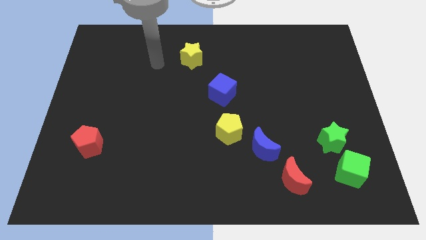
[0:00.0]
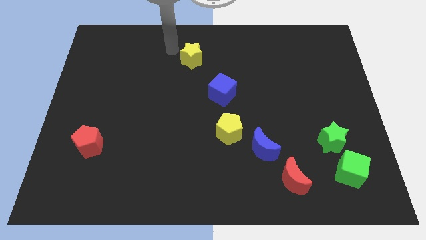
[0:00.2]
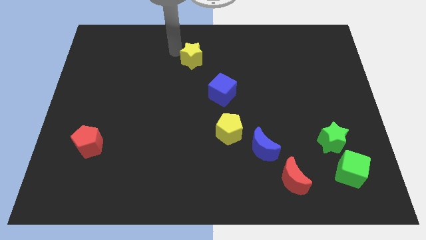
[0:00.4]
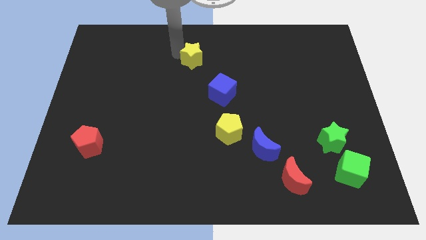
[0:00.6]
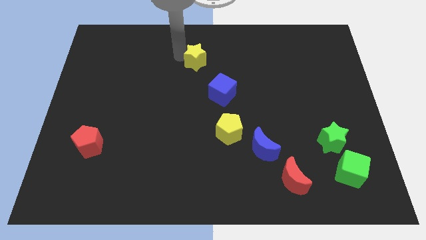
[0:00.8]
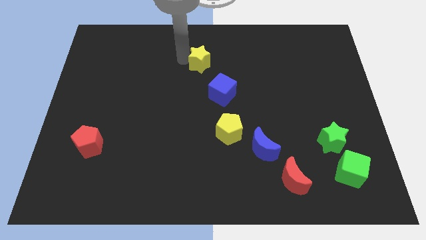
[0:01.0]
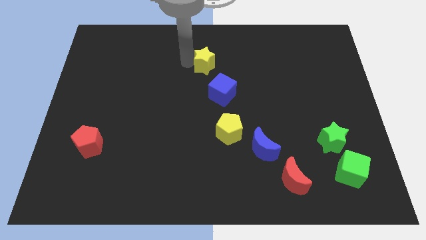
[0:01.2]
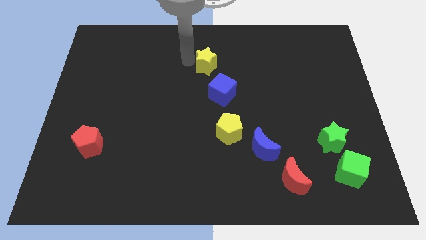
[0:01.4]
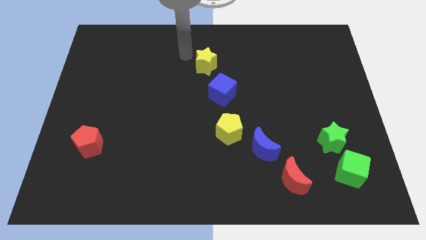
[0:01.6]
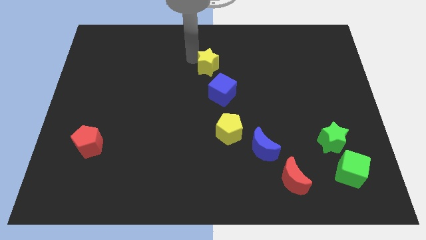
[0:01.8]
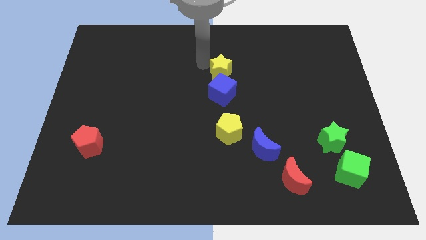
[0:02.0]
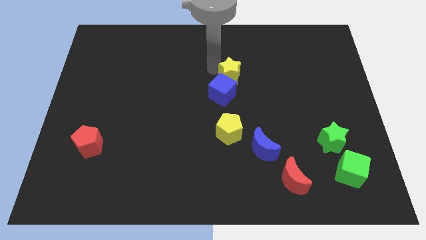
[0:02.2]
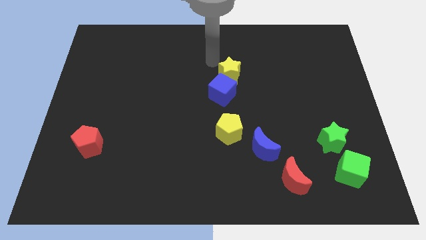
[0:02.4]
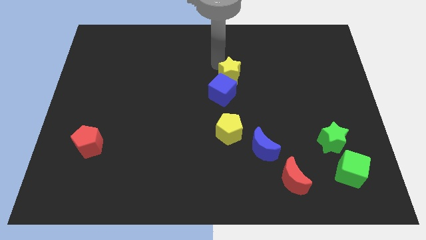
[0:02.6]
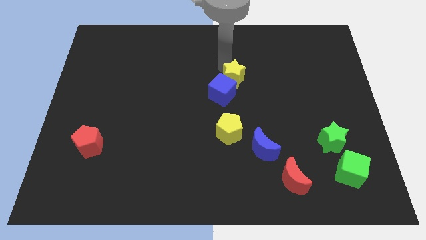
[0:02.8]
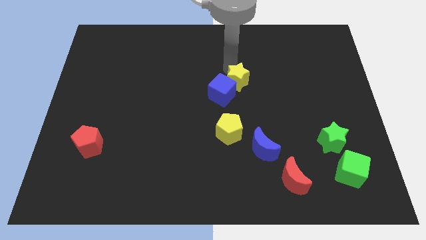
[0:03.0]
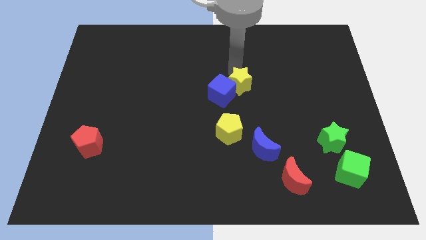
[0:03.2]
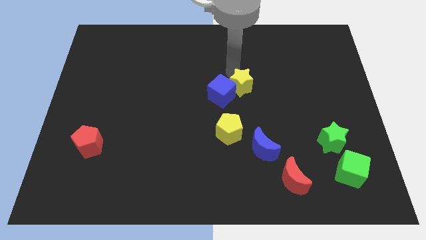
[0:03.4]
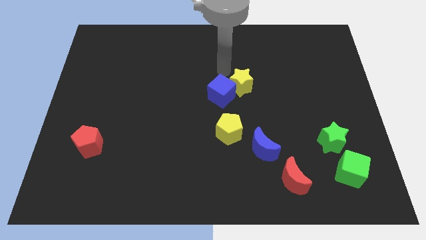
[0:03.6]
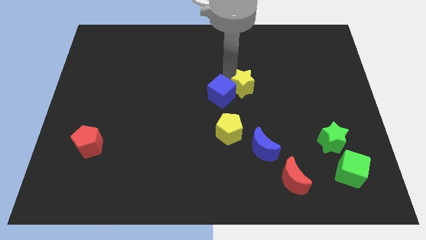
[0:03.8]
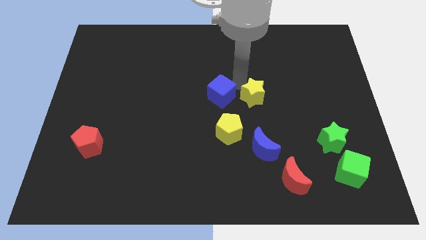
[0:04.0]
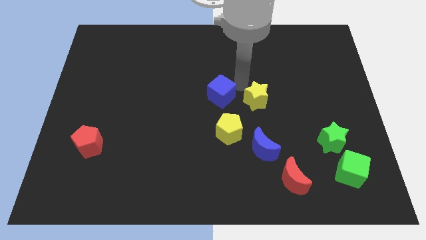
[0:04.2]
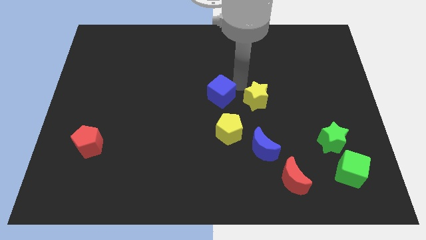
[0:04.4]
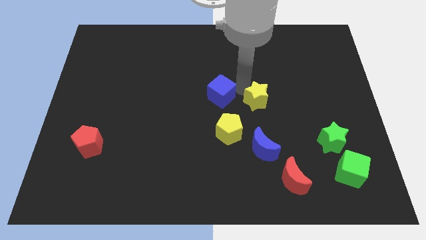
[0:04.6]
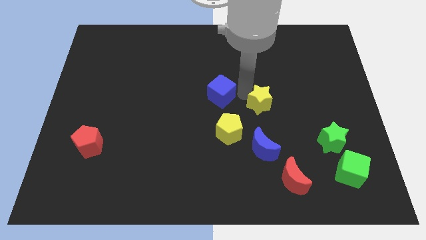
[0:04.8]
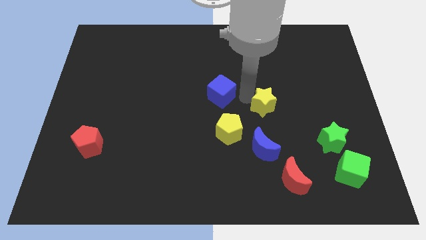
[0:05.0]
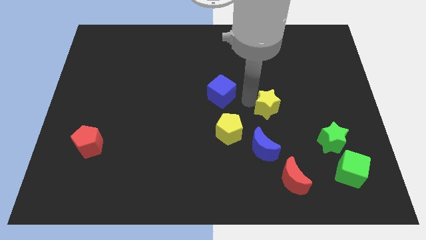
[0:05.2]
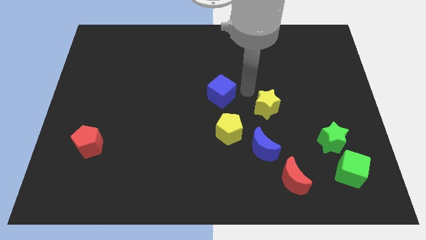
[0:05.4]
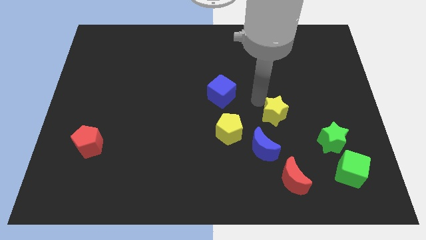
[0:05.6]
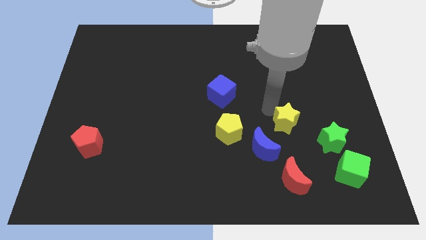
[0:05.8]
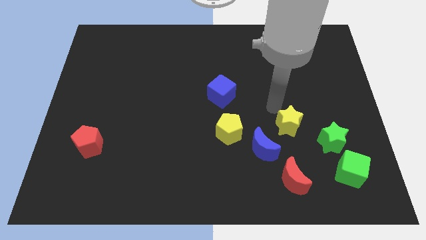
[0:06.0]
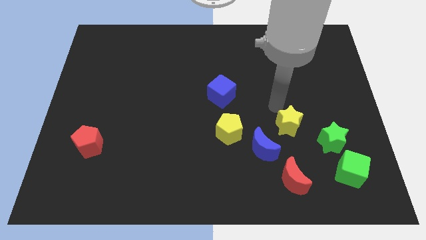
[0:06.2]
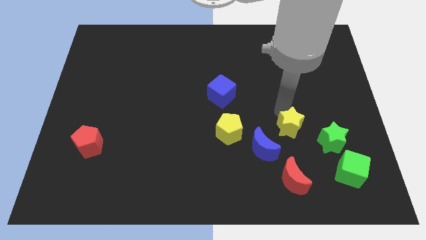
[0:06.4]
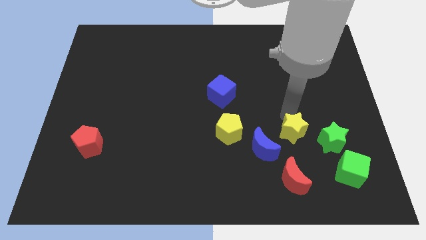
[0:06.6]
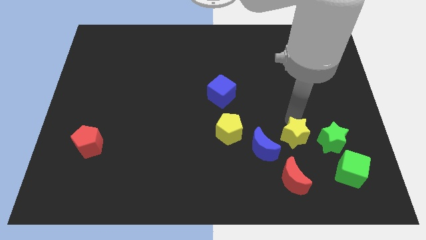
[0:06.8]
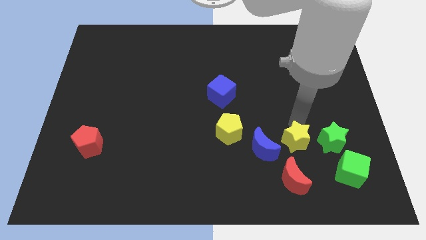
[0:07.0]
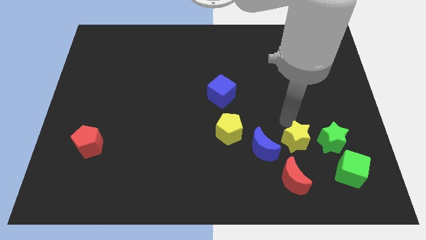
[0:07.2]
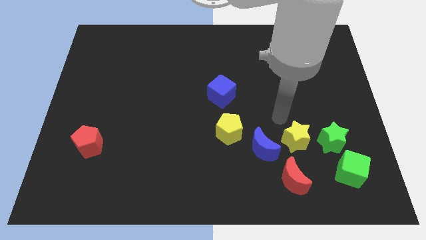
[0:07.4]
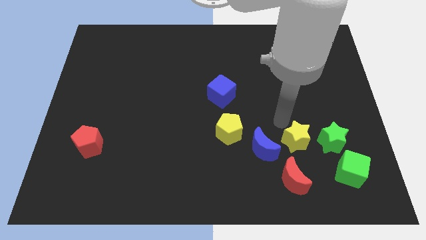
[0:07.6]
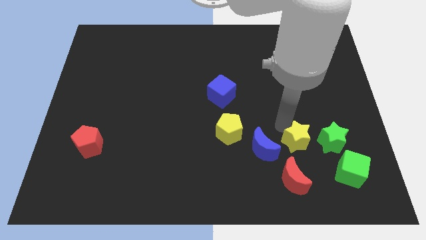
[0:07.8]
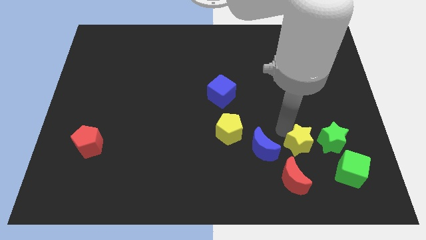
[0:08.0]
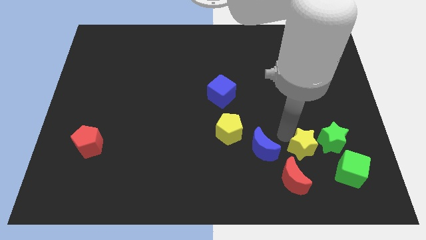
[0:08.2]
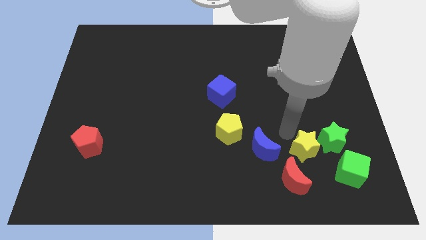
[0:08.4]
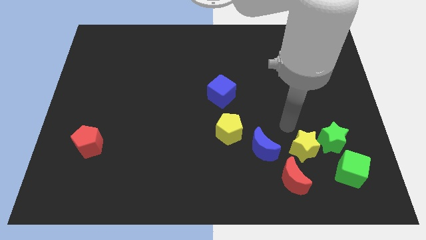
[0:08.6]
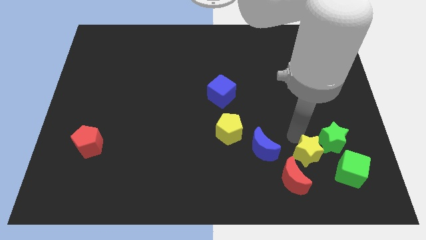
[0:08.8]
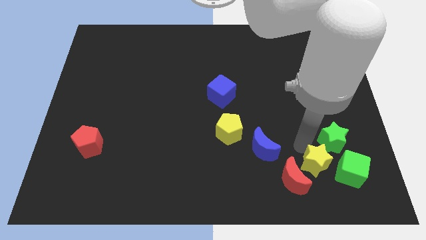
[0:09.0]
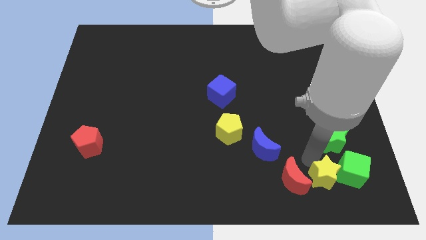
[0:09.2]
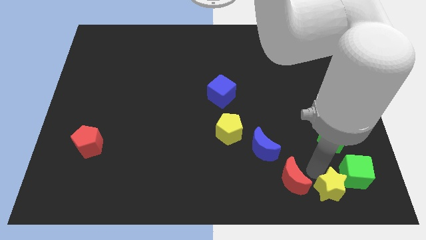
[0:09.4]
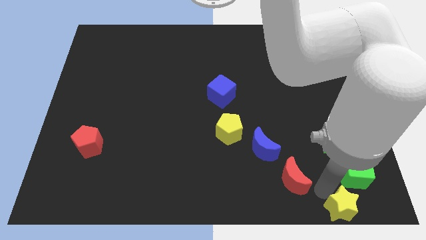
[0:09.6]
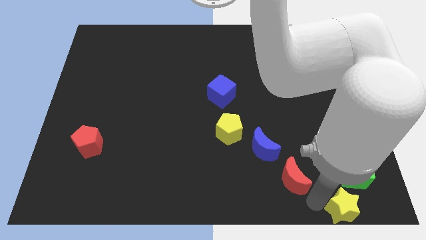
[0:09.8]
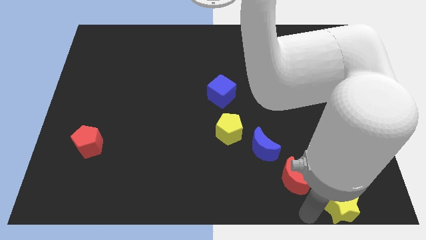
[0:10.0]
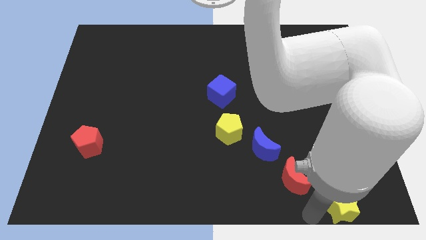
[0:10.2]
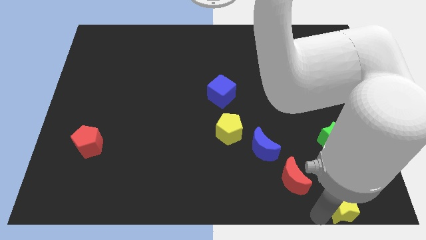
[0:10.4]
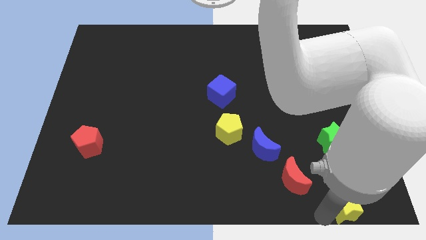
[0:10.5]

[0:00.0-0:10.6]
put the yellow star to the bottom right of the board

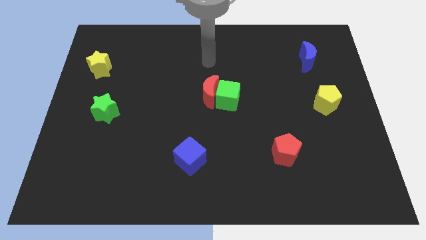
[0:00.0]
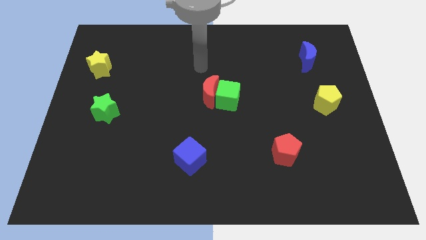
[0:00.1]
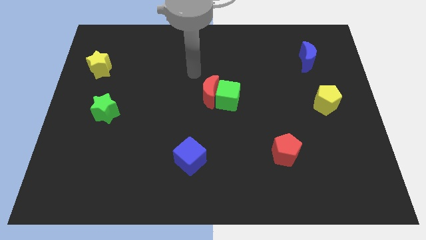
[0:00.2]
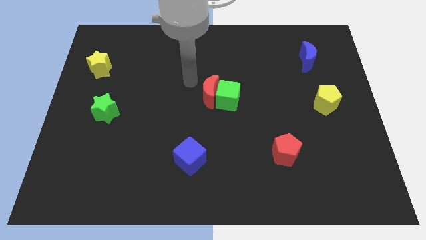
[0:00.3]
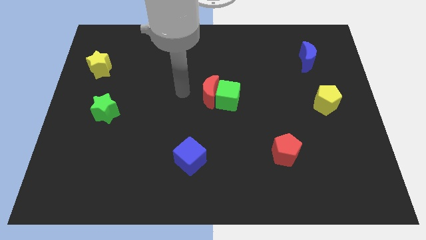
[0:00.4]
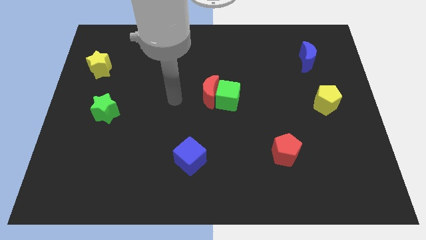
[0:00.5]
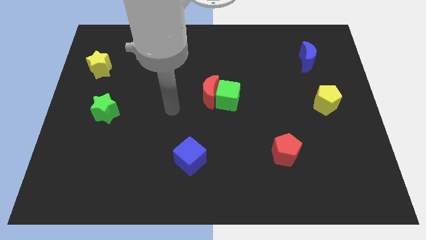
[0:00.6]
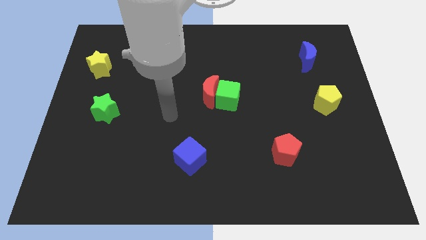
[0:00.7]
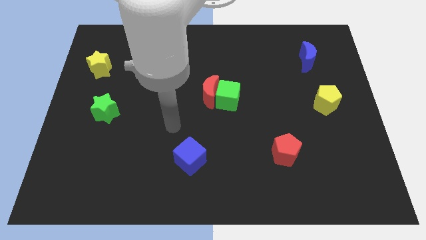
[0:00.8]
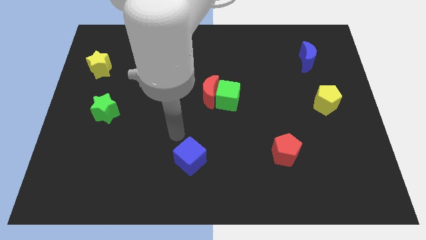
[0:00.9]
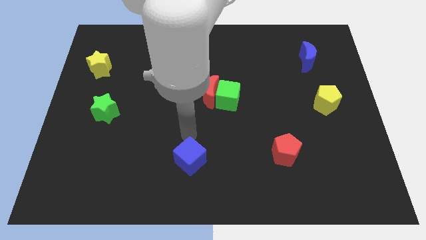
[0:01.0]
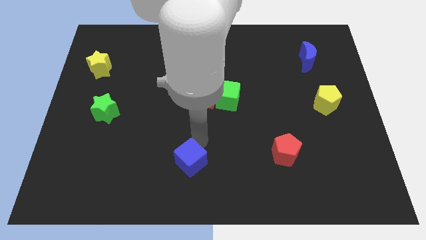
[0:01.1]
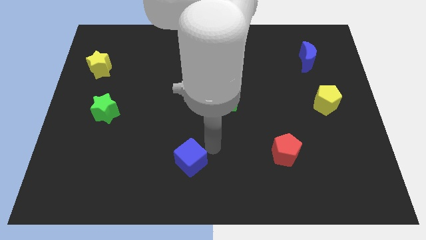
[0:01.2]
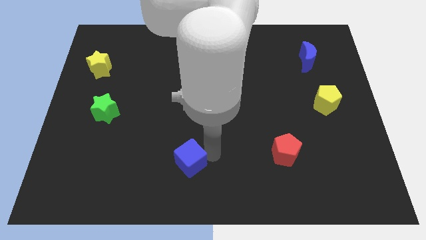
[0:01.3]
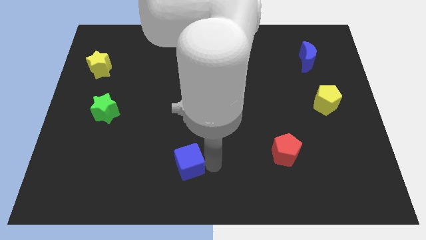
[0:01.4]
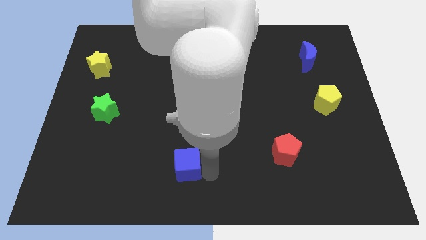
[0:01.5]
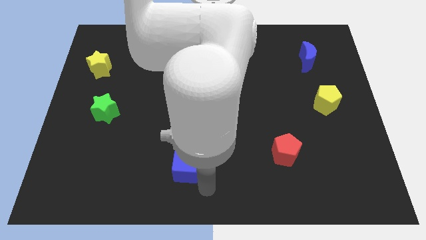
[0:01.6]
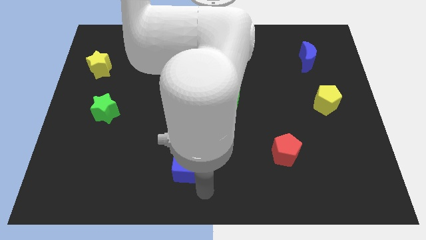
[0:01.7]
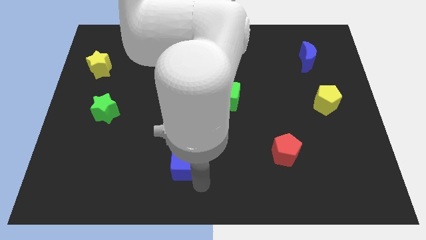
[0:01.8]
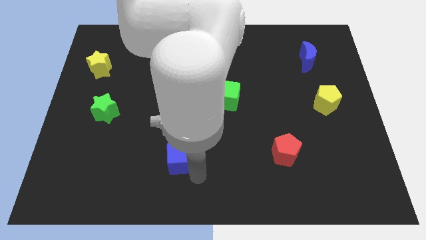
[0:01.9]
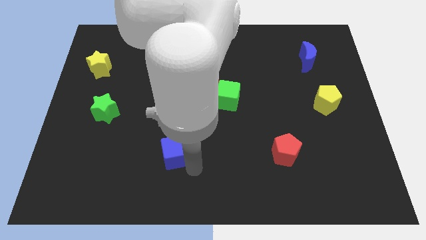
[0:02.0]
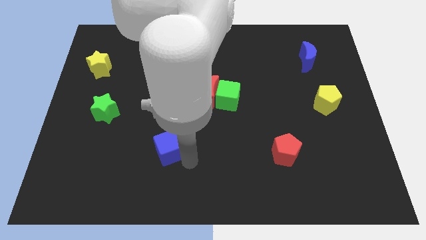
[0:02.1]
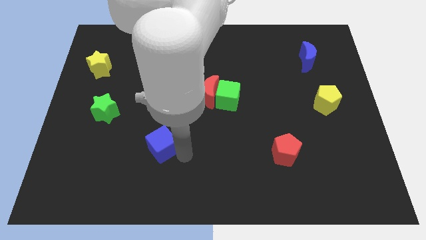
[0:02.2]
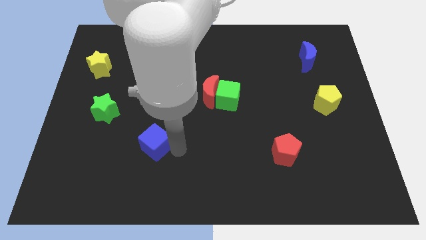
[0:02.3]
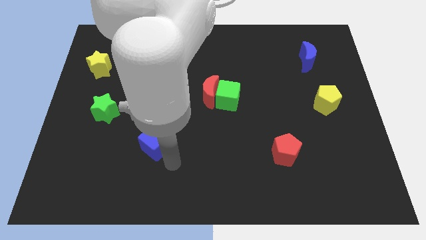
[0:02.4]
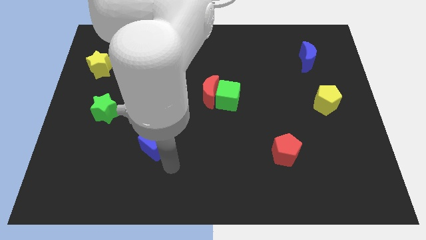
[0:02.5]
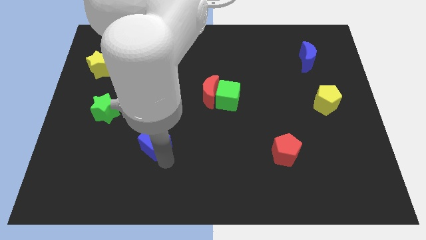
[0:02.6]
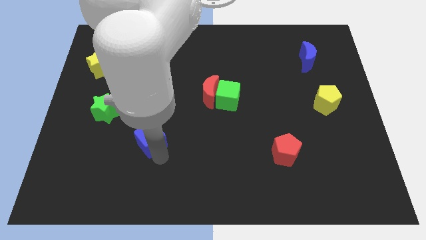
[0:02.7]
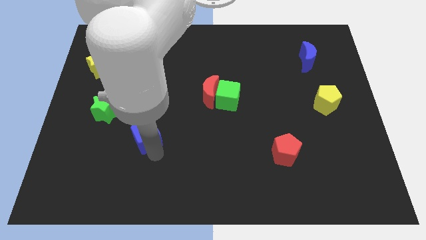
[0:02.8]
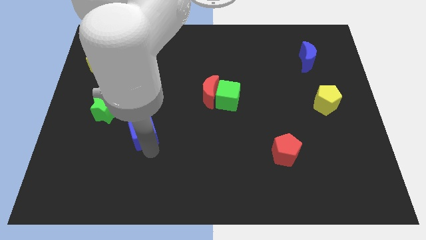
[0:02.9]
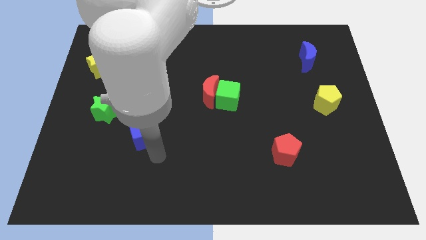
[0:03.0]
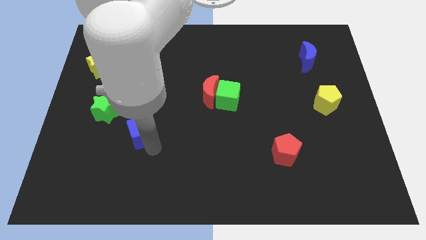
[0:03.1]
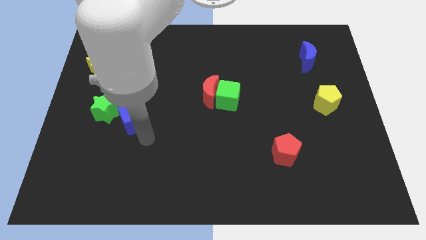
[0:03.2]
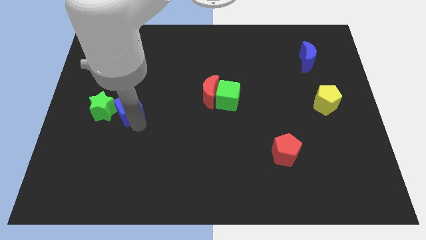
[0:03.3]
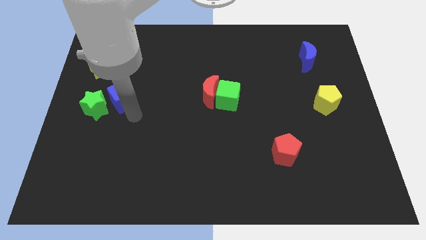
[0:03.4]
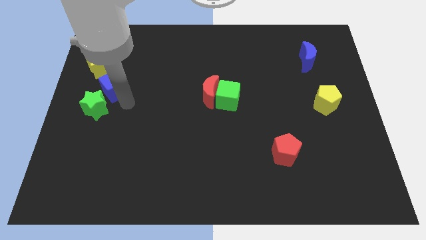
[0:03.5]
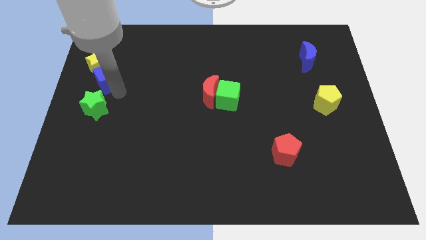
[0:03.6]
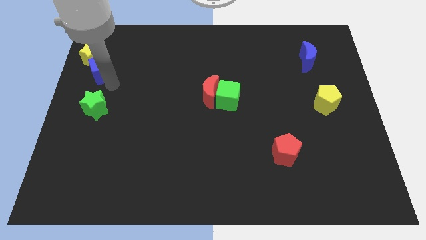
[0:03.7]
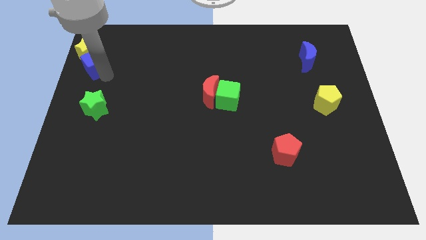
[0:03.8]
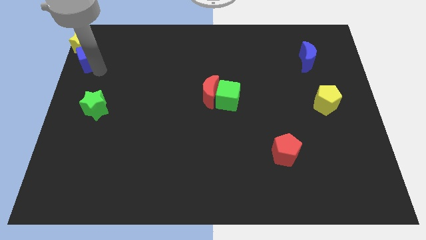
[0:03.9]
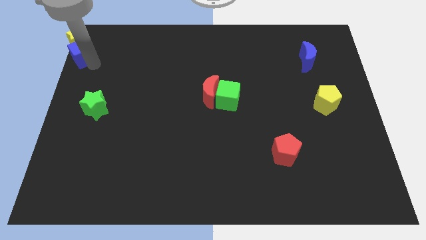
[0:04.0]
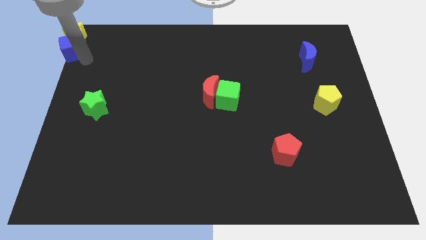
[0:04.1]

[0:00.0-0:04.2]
push the blue cube to the upper left corner
